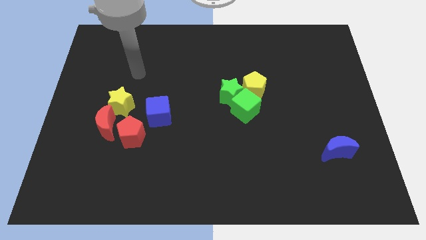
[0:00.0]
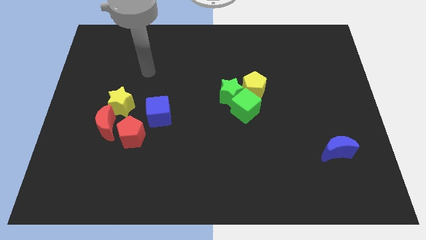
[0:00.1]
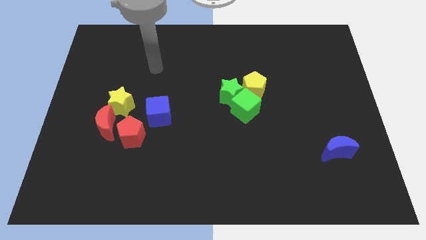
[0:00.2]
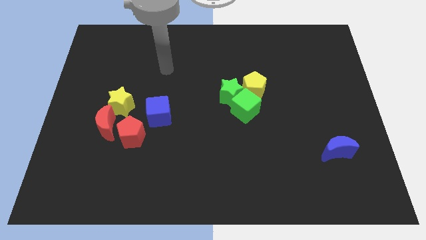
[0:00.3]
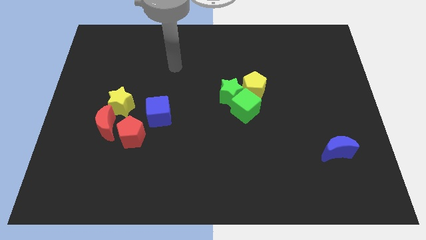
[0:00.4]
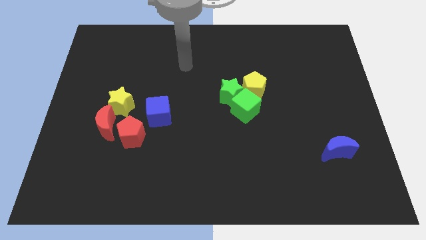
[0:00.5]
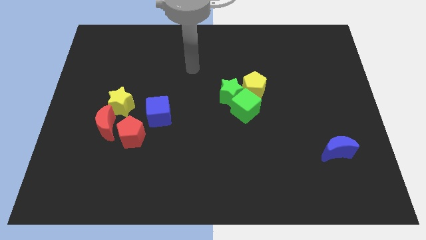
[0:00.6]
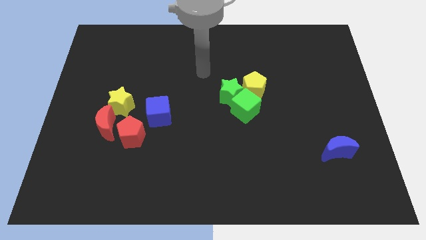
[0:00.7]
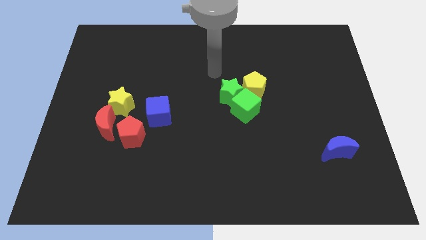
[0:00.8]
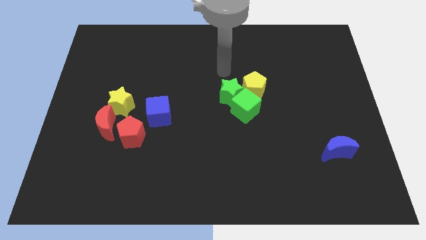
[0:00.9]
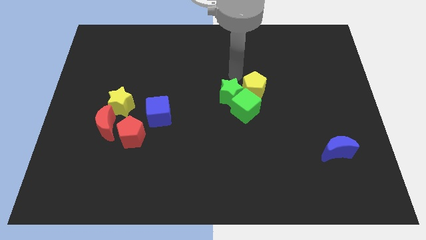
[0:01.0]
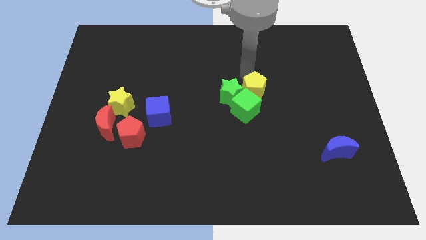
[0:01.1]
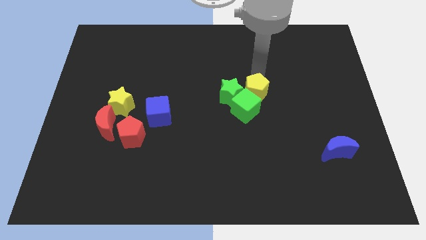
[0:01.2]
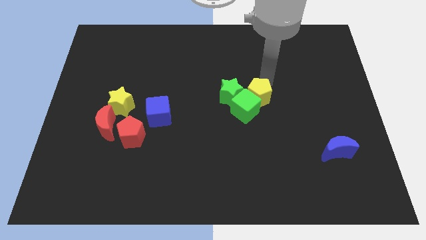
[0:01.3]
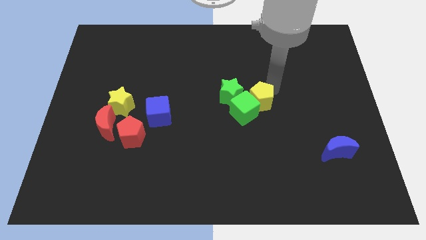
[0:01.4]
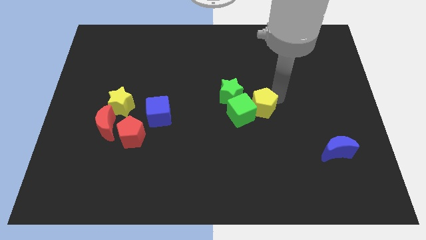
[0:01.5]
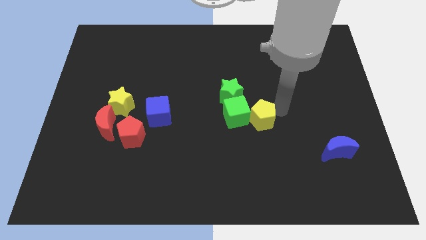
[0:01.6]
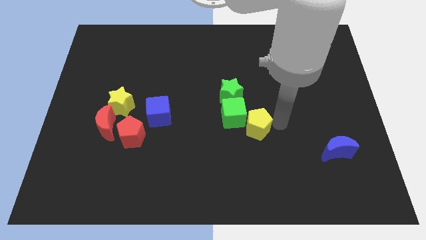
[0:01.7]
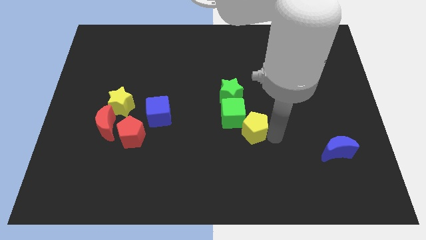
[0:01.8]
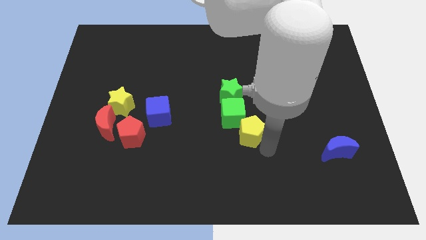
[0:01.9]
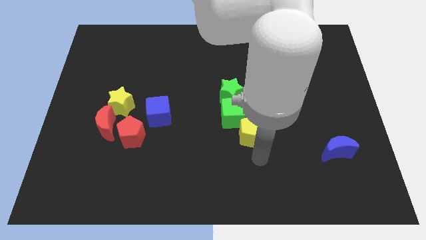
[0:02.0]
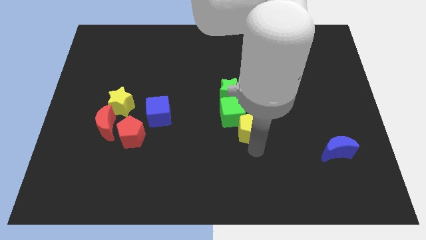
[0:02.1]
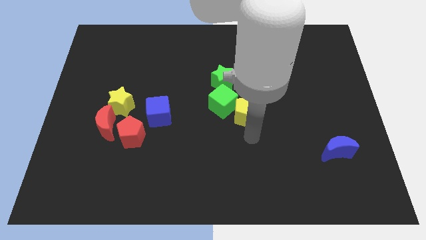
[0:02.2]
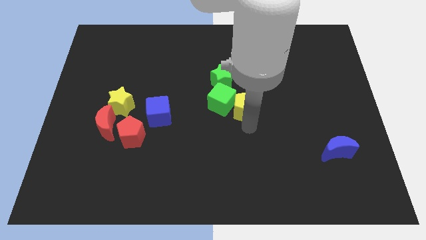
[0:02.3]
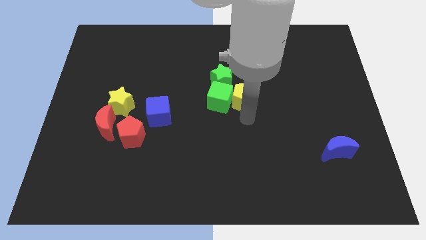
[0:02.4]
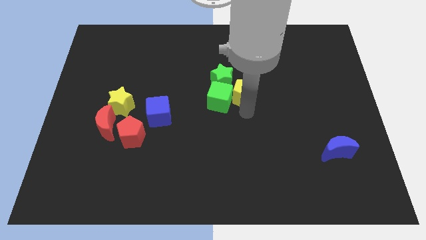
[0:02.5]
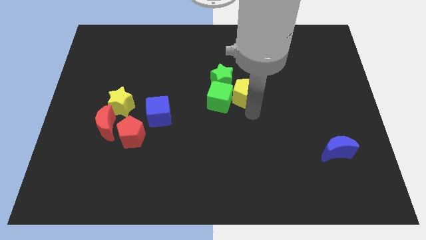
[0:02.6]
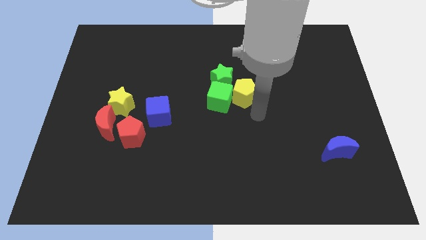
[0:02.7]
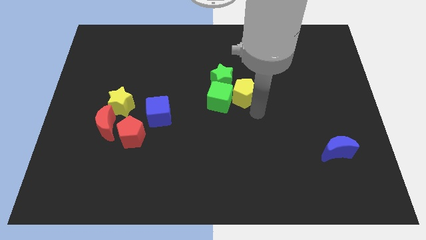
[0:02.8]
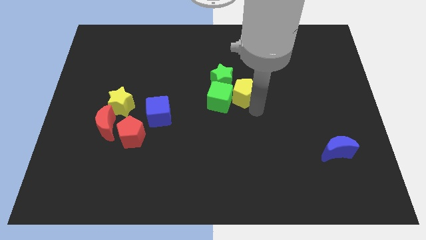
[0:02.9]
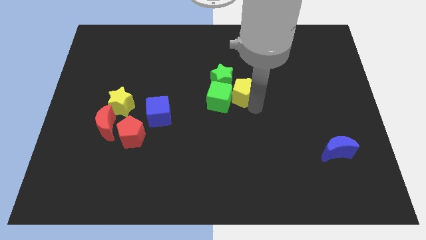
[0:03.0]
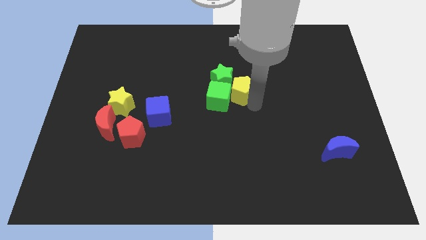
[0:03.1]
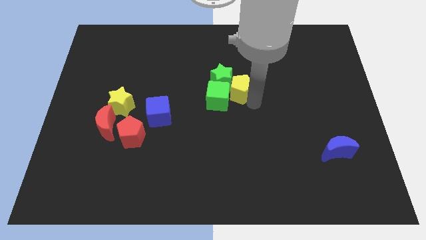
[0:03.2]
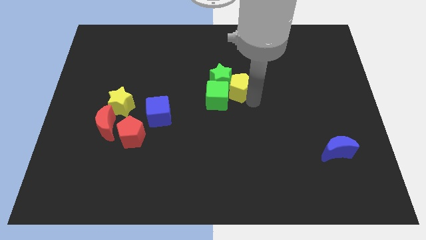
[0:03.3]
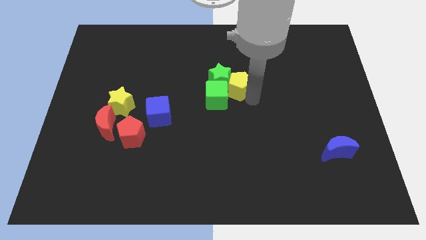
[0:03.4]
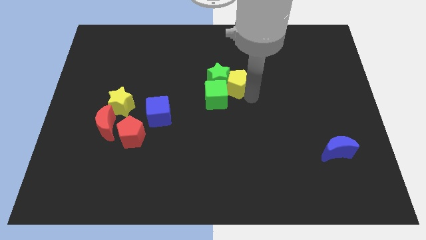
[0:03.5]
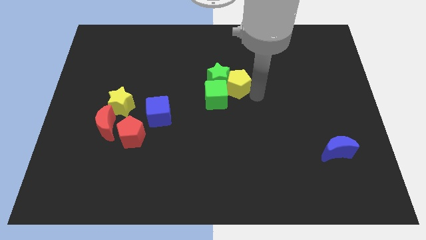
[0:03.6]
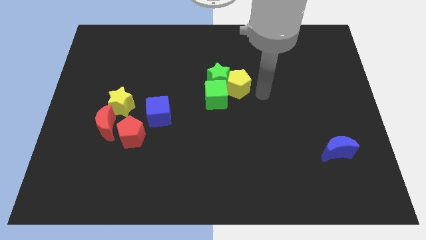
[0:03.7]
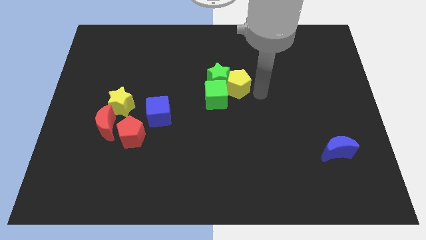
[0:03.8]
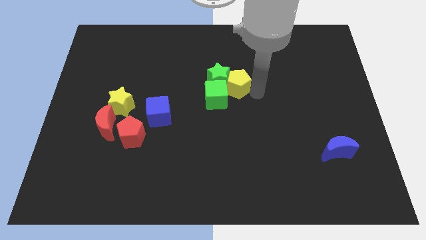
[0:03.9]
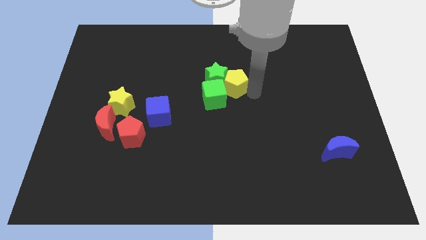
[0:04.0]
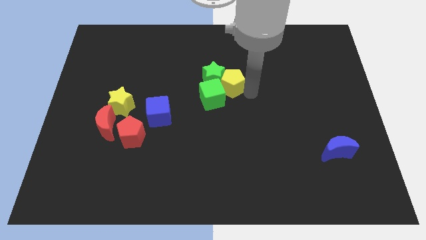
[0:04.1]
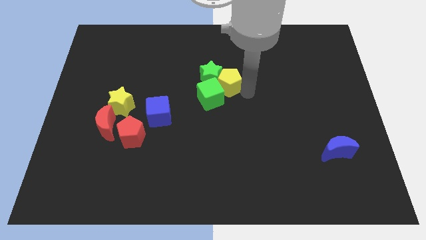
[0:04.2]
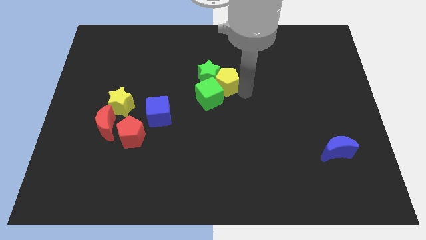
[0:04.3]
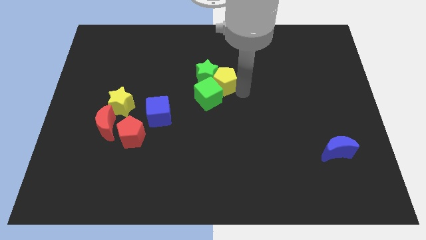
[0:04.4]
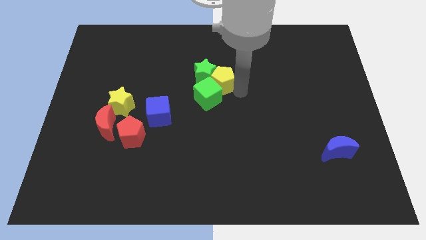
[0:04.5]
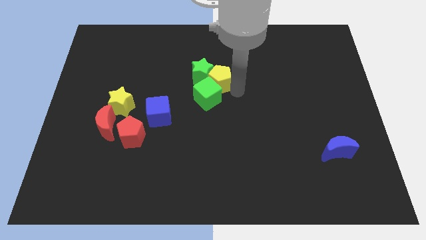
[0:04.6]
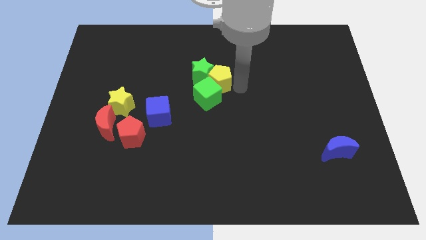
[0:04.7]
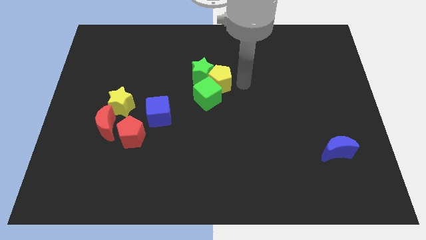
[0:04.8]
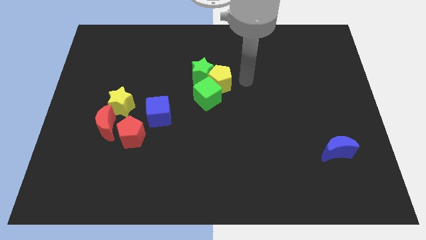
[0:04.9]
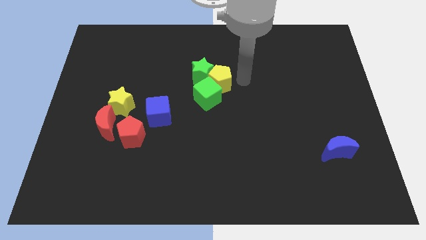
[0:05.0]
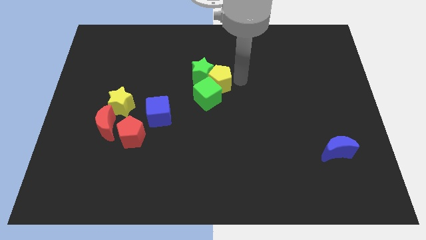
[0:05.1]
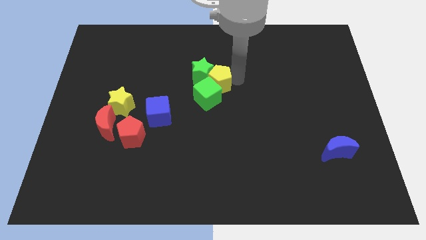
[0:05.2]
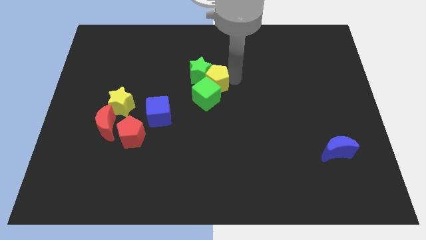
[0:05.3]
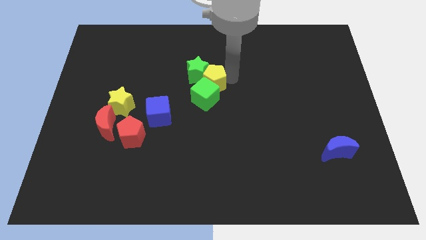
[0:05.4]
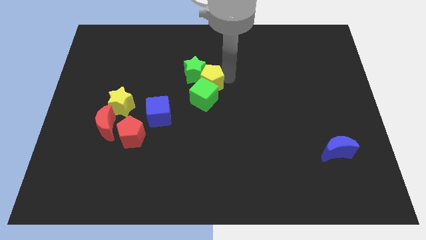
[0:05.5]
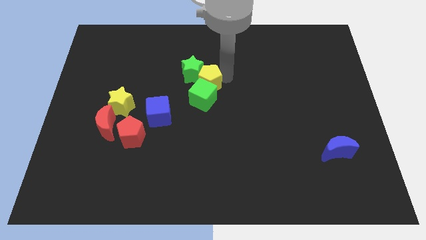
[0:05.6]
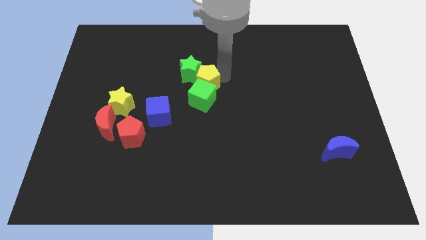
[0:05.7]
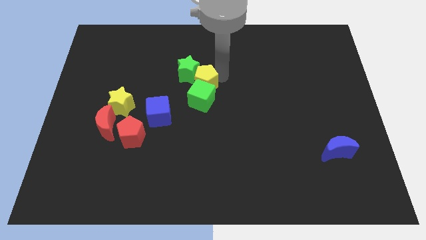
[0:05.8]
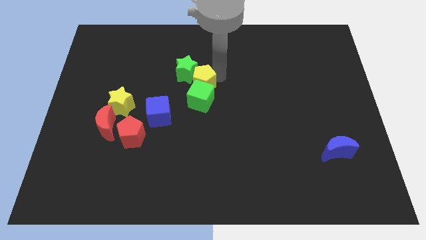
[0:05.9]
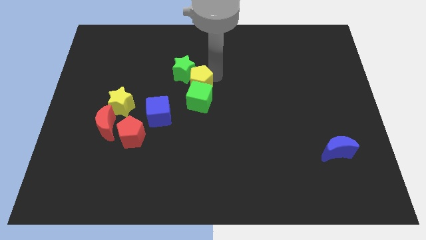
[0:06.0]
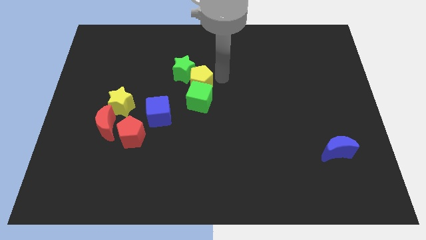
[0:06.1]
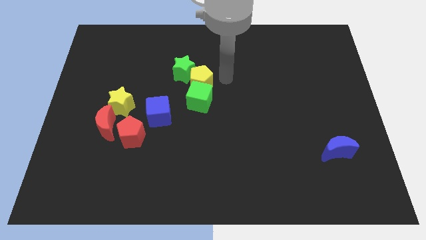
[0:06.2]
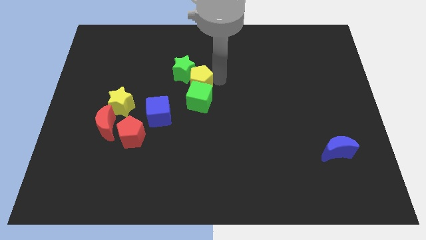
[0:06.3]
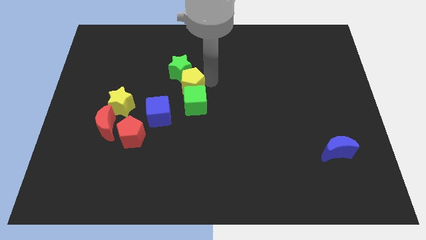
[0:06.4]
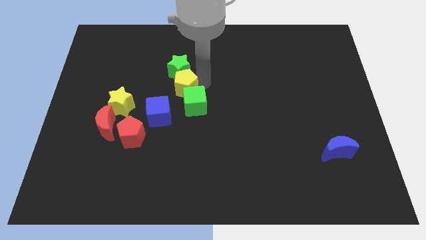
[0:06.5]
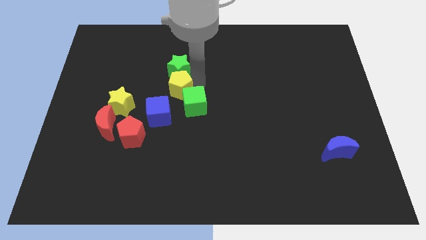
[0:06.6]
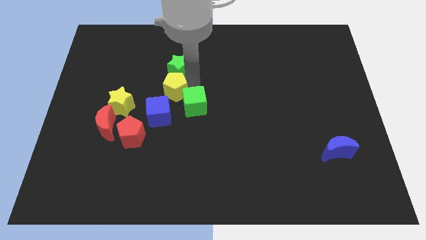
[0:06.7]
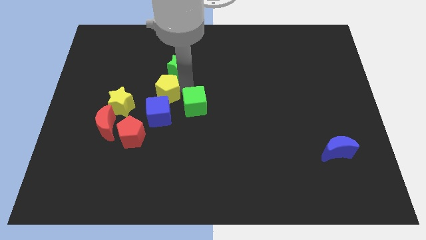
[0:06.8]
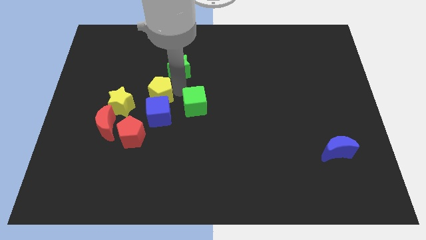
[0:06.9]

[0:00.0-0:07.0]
put the yellow pentagon to the top right side of the yellow star
